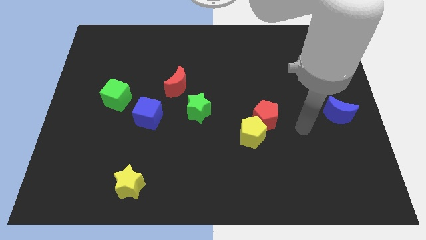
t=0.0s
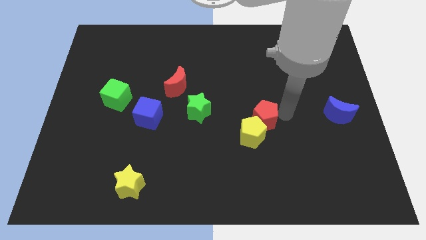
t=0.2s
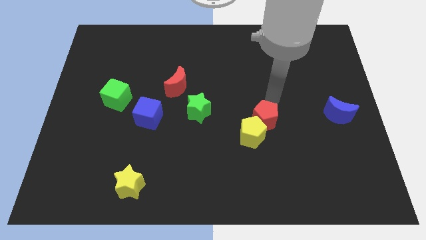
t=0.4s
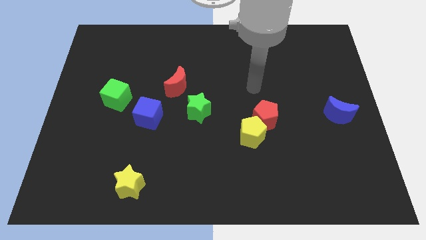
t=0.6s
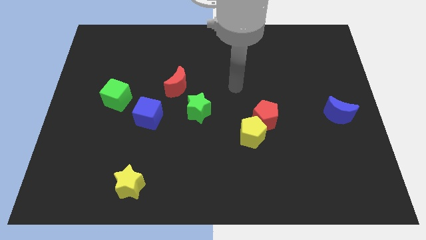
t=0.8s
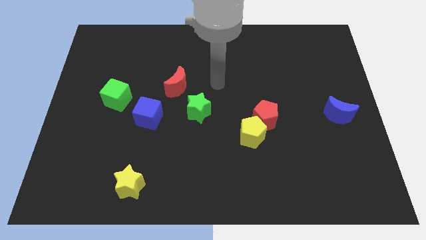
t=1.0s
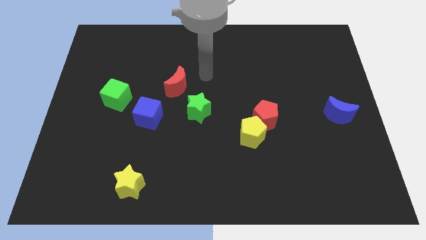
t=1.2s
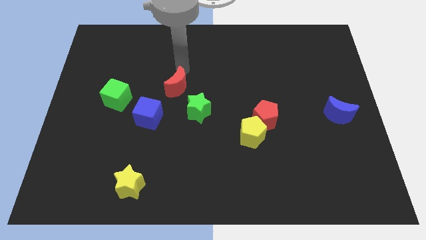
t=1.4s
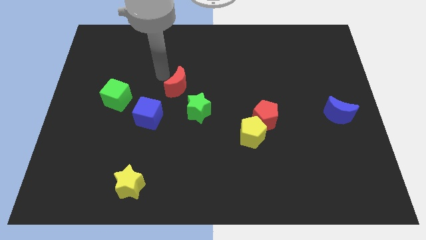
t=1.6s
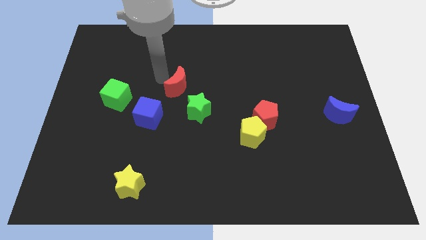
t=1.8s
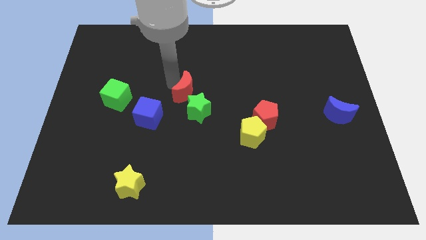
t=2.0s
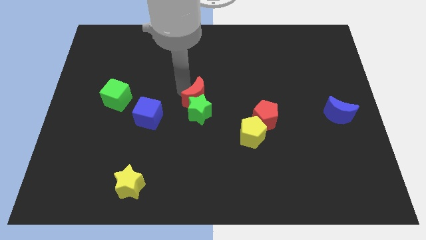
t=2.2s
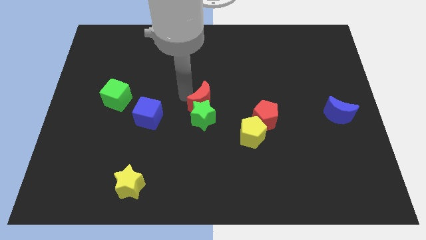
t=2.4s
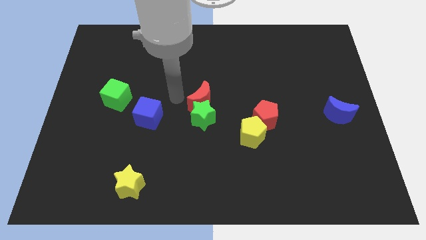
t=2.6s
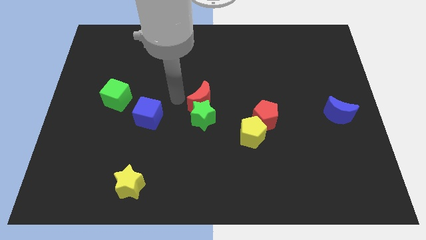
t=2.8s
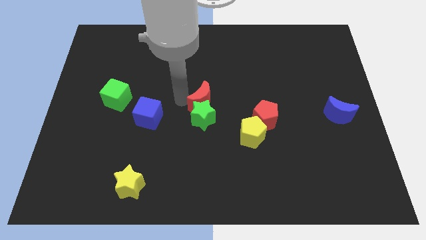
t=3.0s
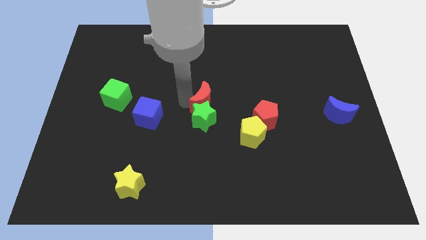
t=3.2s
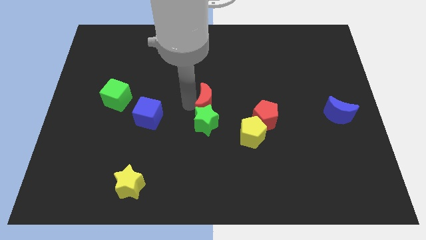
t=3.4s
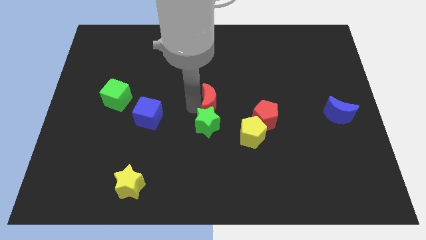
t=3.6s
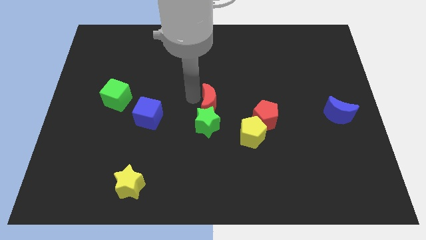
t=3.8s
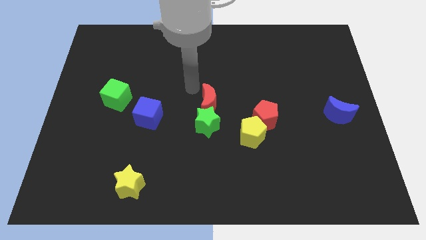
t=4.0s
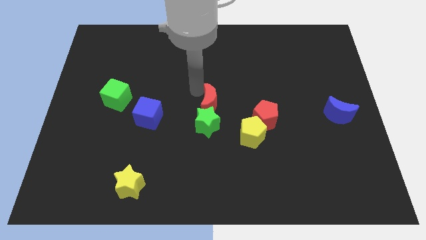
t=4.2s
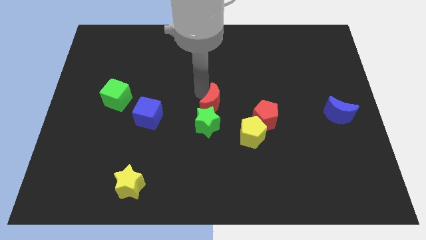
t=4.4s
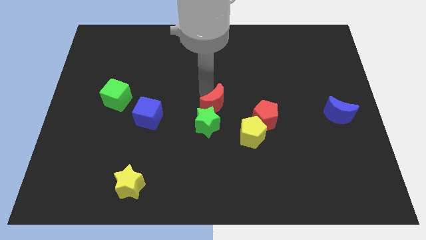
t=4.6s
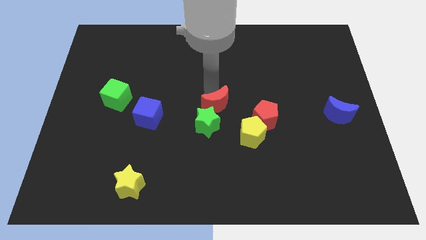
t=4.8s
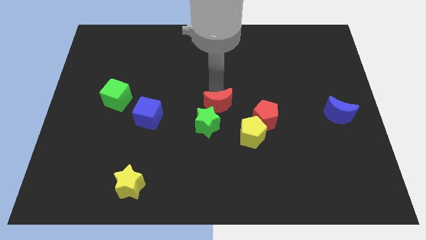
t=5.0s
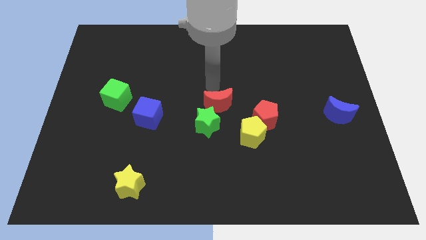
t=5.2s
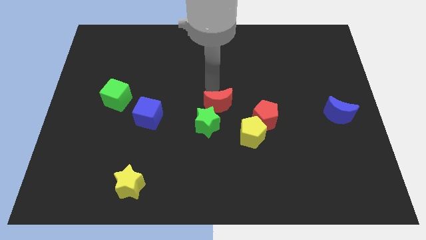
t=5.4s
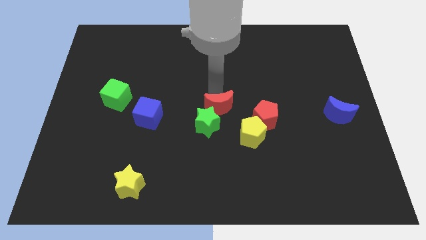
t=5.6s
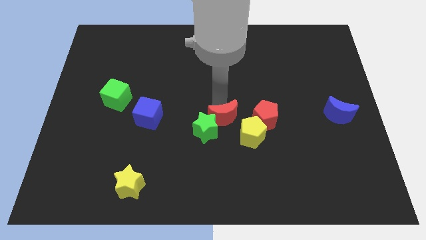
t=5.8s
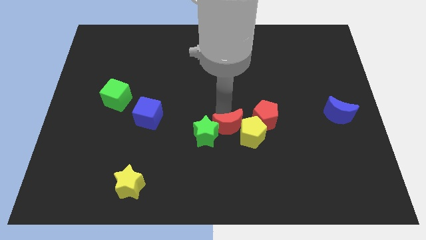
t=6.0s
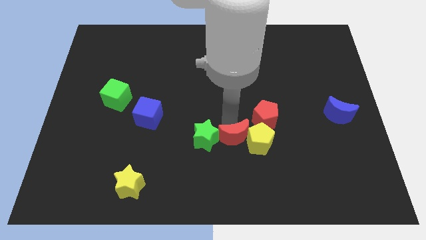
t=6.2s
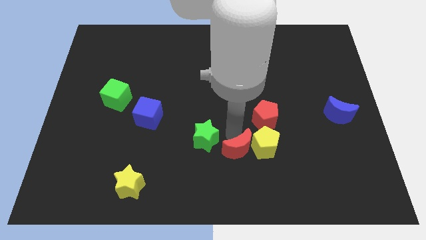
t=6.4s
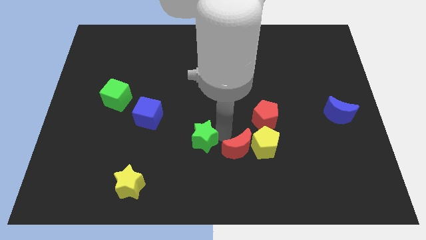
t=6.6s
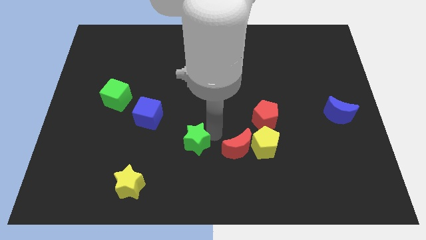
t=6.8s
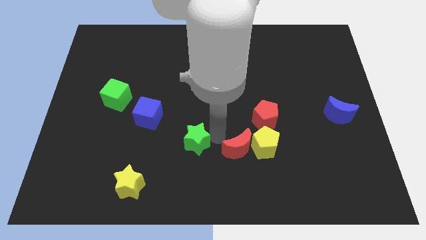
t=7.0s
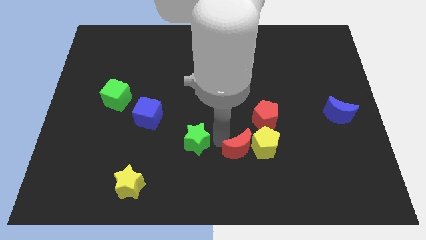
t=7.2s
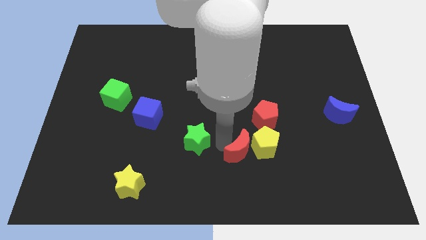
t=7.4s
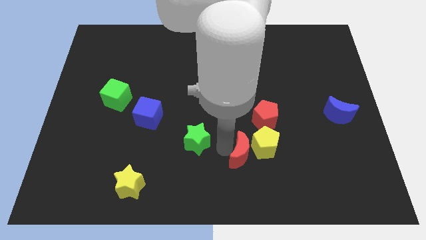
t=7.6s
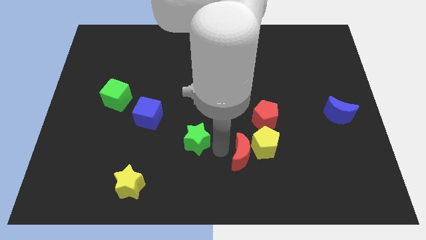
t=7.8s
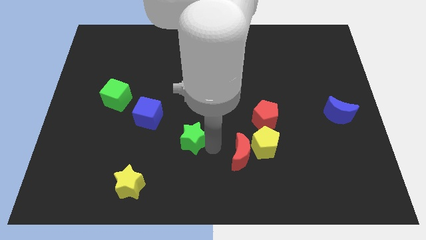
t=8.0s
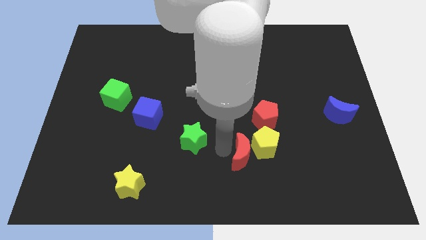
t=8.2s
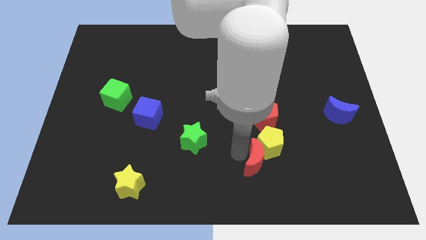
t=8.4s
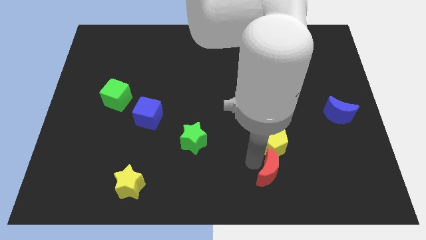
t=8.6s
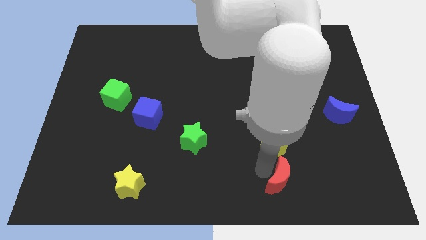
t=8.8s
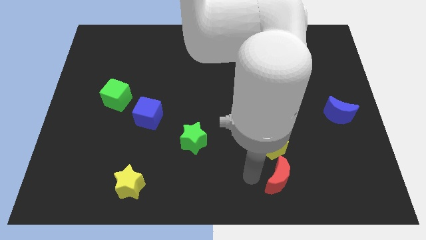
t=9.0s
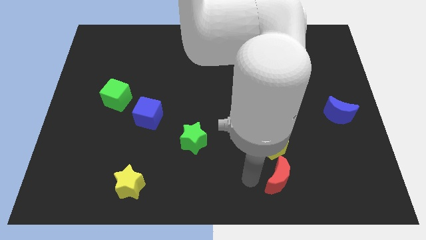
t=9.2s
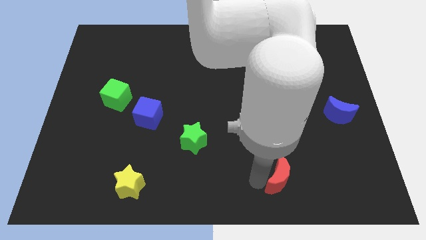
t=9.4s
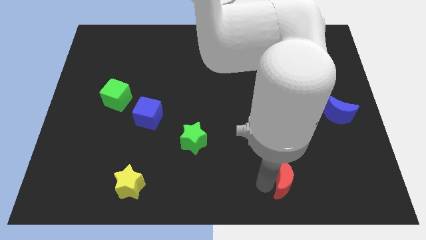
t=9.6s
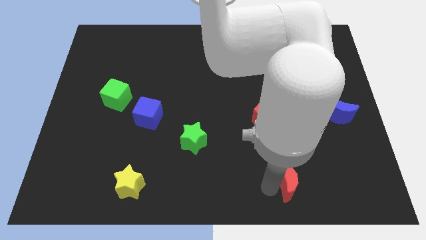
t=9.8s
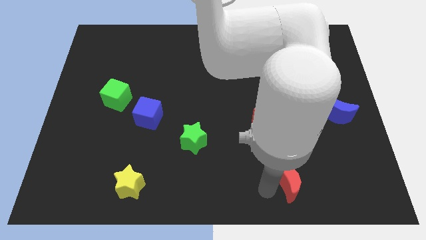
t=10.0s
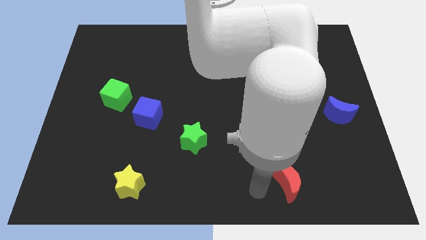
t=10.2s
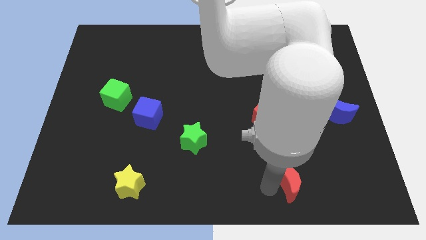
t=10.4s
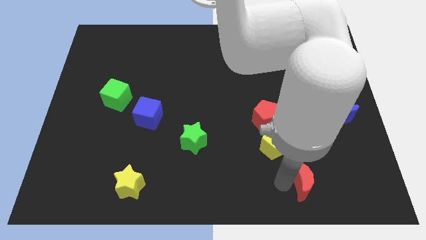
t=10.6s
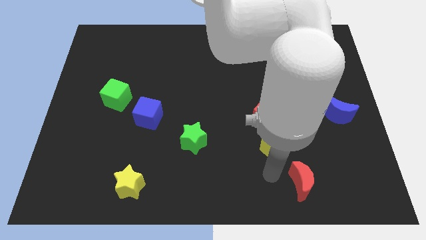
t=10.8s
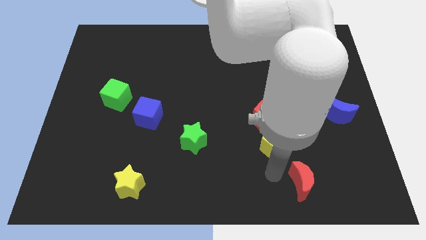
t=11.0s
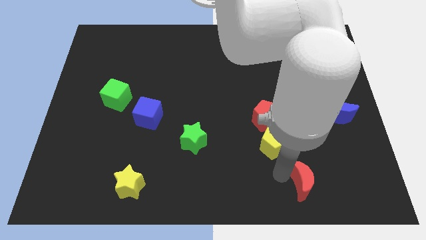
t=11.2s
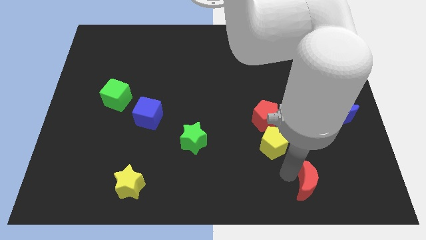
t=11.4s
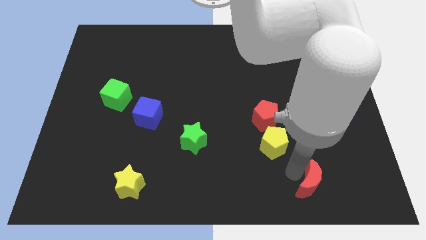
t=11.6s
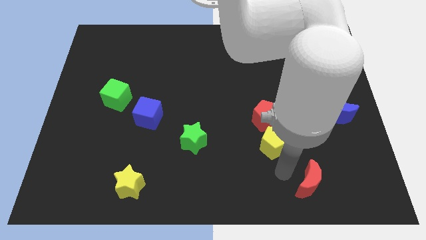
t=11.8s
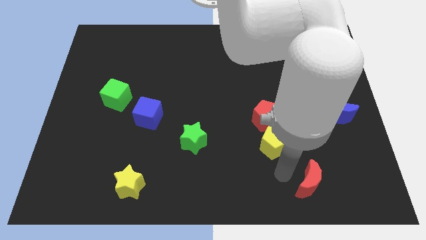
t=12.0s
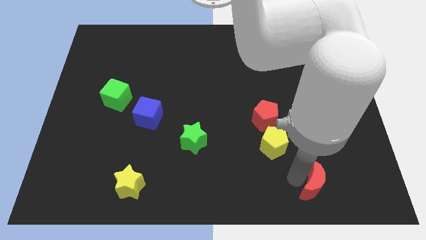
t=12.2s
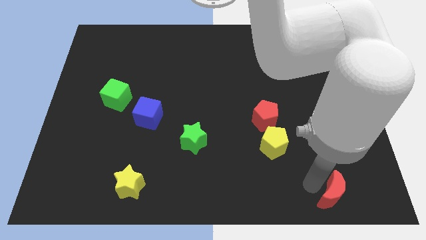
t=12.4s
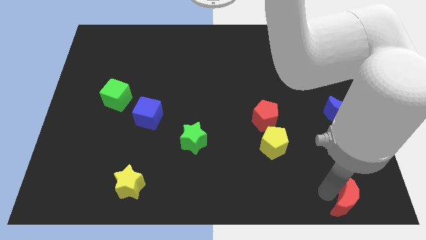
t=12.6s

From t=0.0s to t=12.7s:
put the red moon to the bottom right
